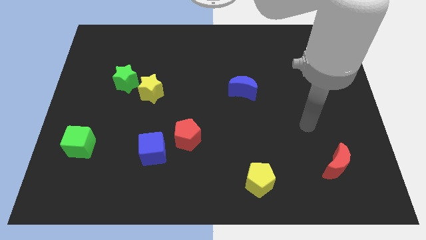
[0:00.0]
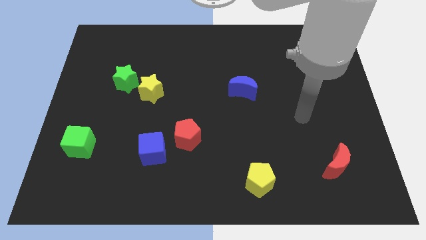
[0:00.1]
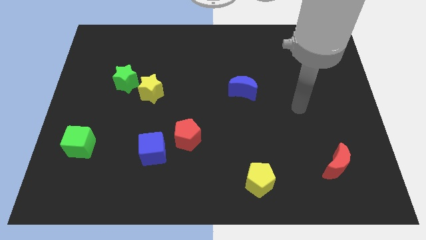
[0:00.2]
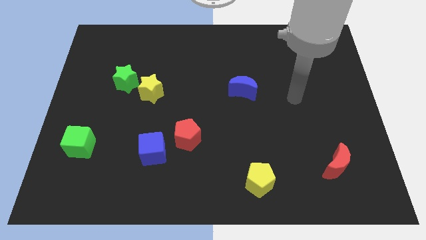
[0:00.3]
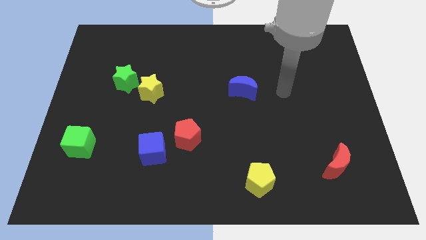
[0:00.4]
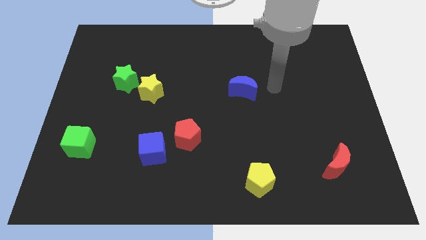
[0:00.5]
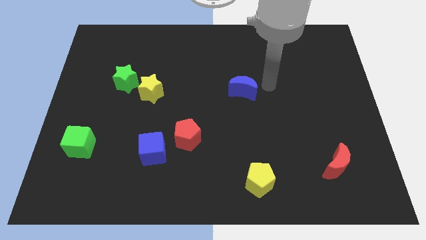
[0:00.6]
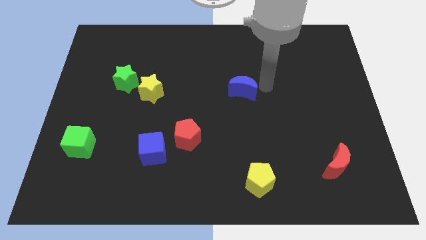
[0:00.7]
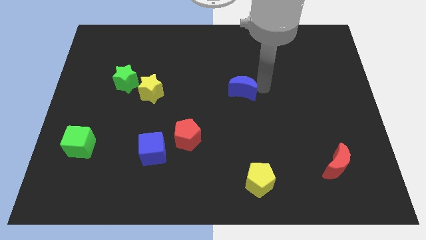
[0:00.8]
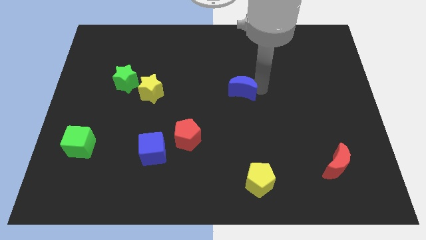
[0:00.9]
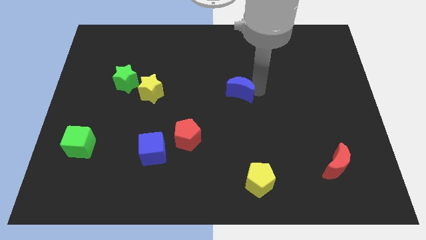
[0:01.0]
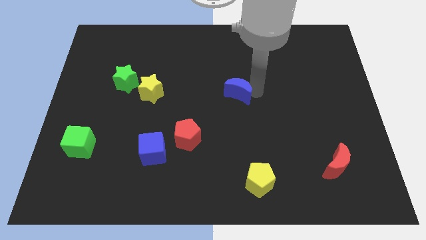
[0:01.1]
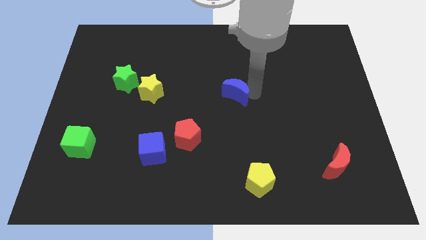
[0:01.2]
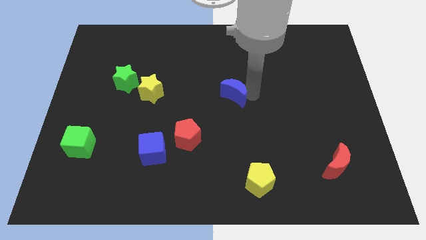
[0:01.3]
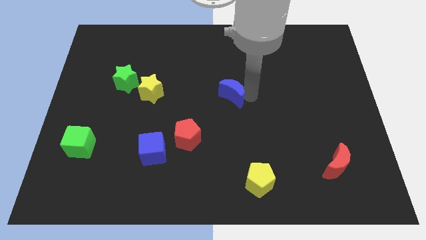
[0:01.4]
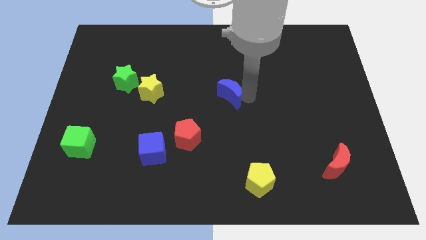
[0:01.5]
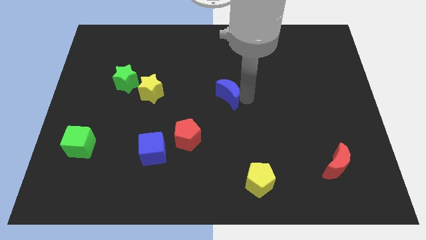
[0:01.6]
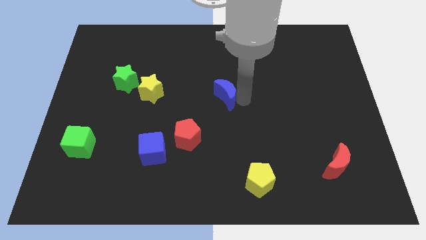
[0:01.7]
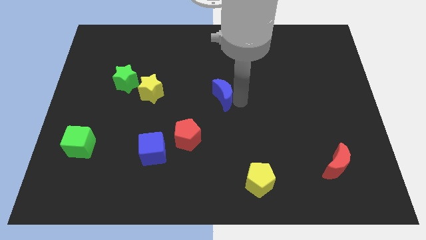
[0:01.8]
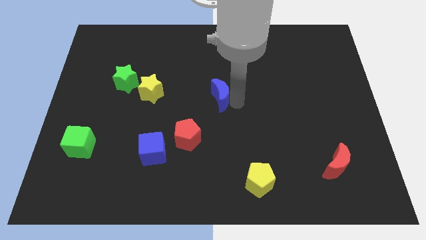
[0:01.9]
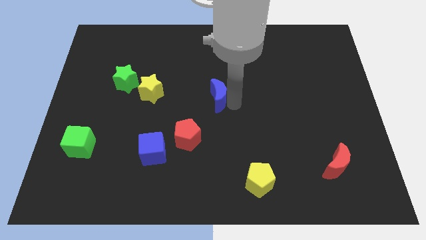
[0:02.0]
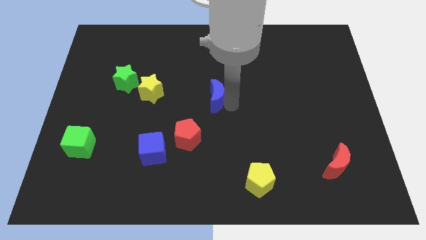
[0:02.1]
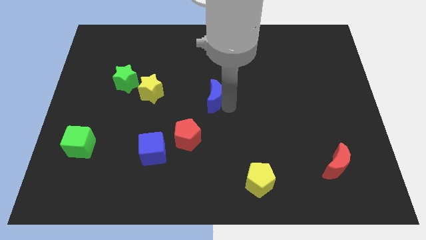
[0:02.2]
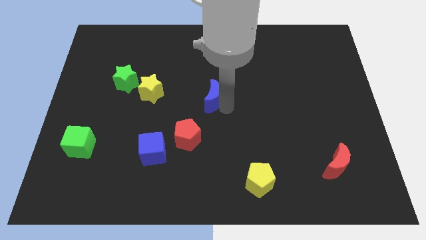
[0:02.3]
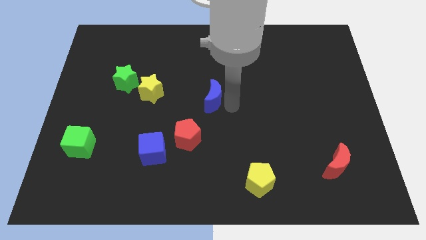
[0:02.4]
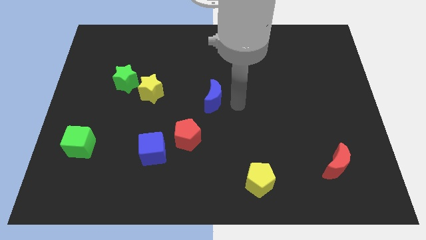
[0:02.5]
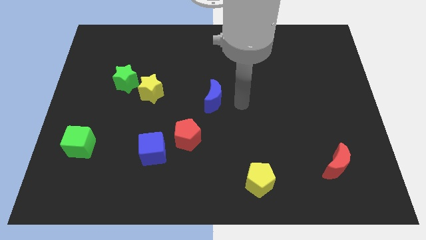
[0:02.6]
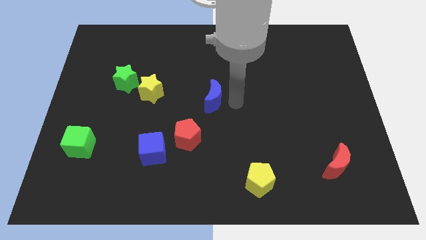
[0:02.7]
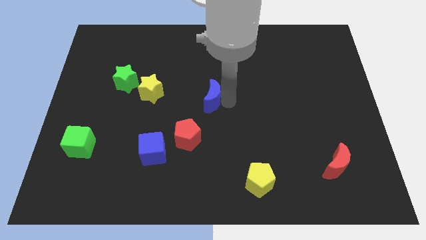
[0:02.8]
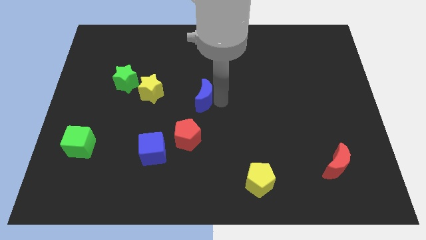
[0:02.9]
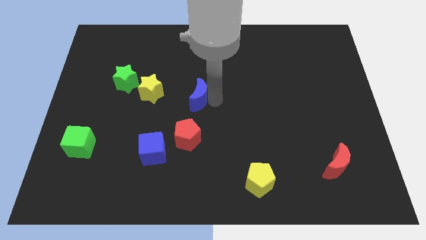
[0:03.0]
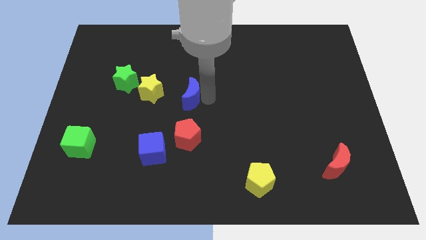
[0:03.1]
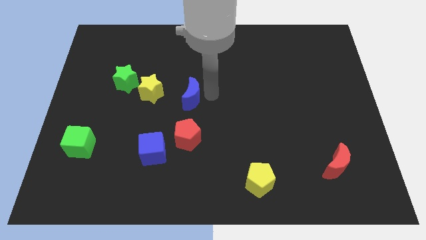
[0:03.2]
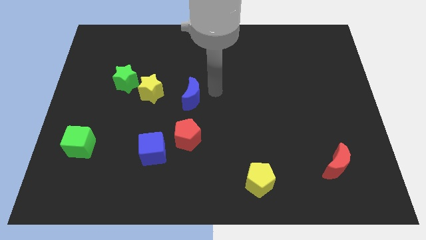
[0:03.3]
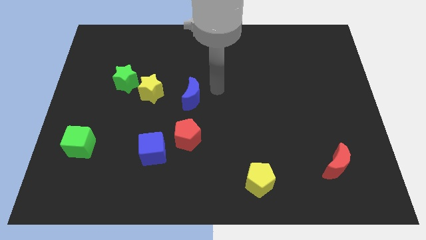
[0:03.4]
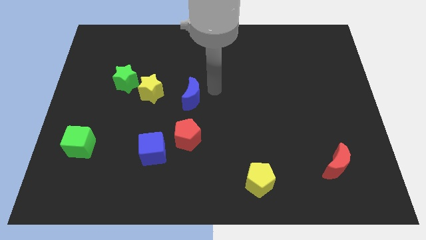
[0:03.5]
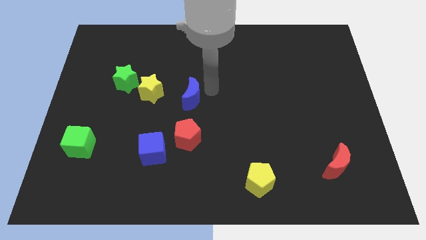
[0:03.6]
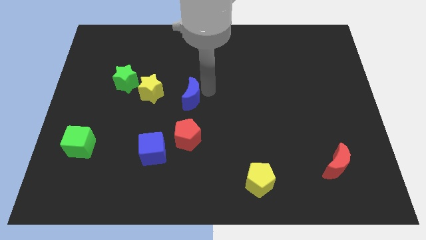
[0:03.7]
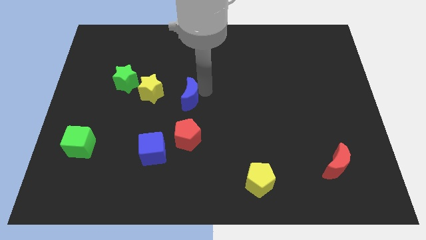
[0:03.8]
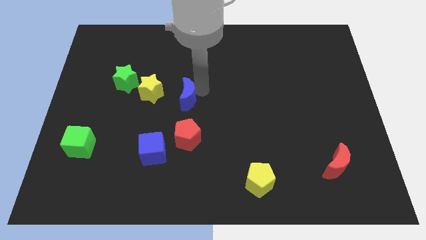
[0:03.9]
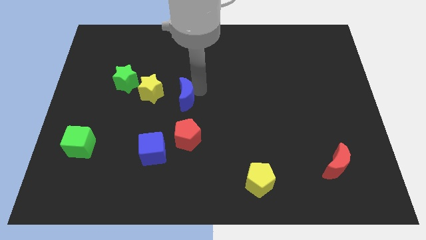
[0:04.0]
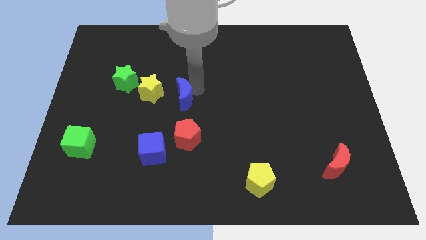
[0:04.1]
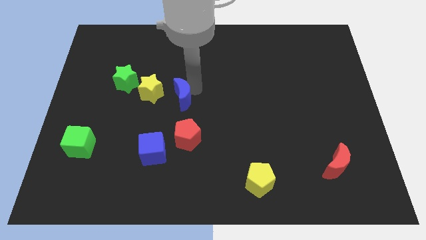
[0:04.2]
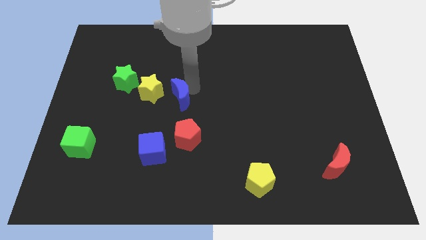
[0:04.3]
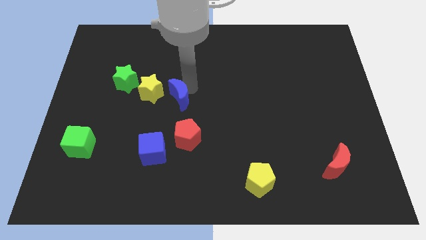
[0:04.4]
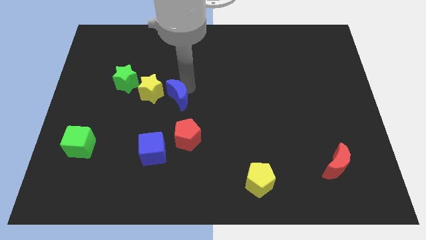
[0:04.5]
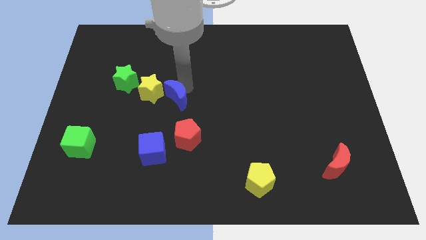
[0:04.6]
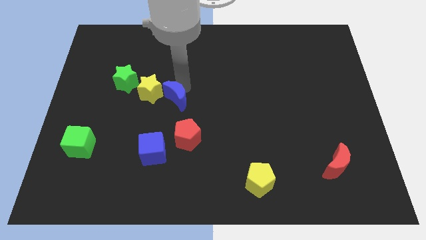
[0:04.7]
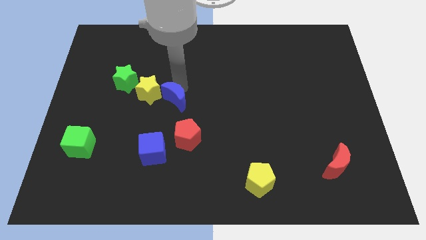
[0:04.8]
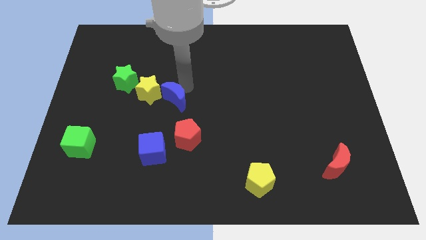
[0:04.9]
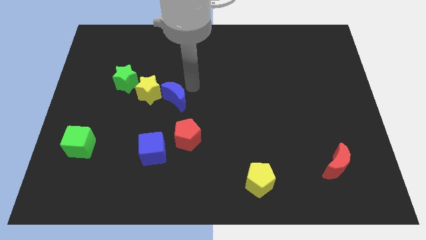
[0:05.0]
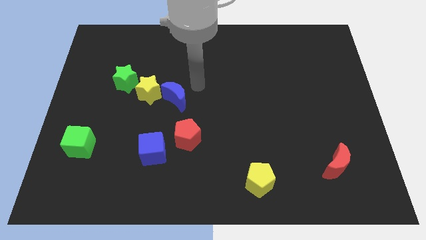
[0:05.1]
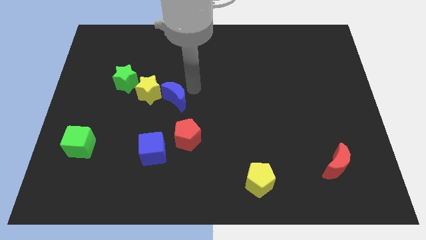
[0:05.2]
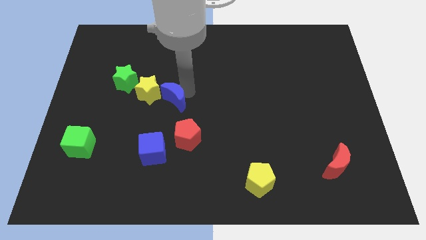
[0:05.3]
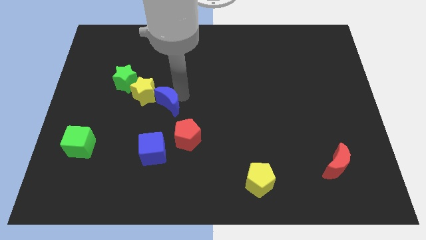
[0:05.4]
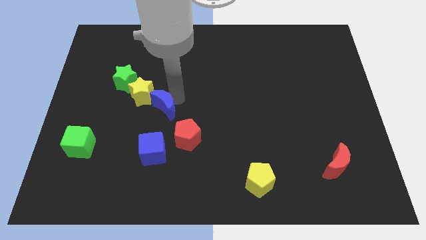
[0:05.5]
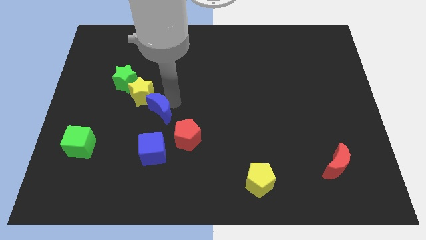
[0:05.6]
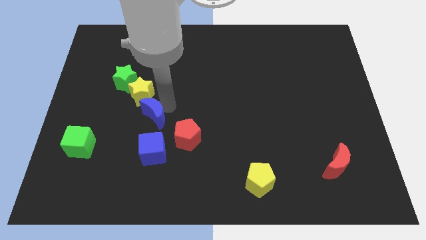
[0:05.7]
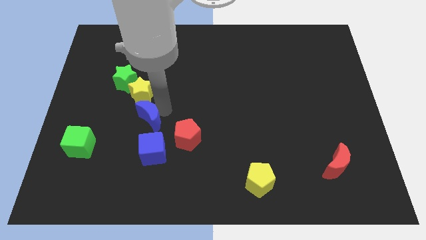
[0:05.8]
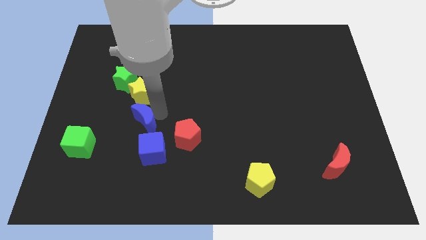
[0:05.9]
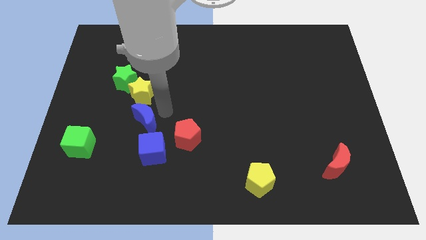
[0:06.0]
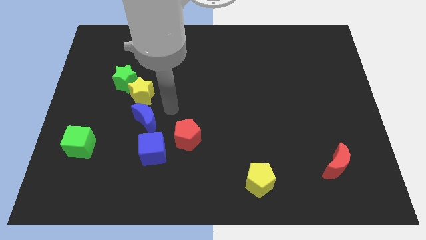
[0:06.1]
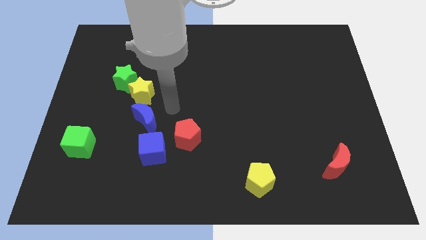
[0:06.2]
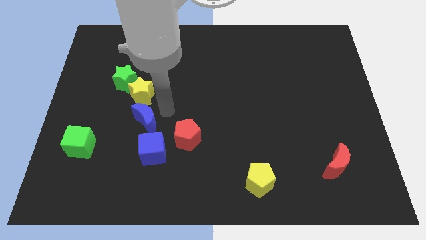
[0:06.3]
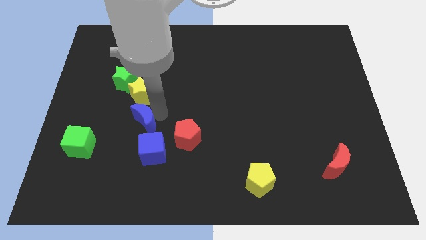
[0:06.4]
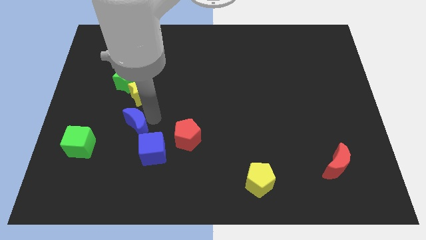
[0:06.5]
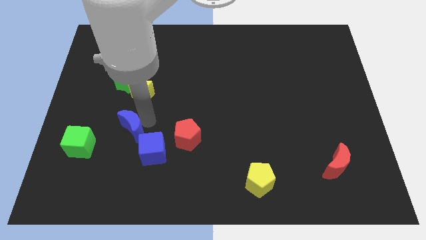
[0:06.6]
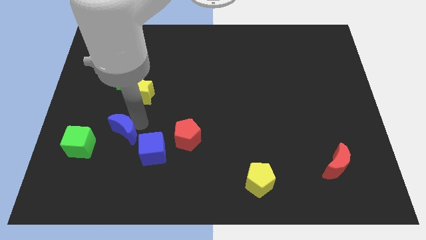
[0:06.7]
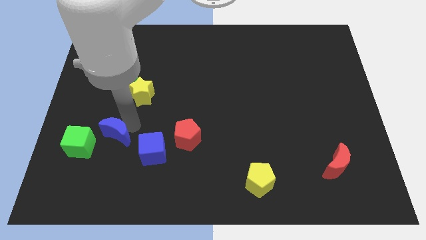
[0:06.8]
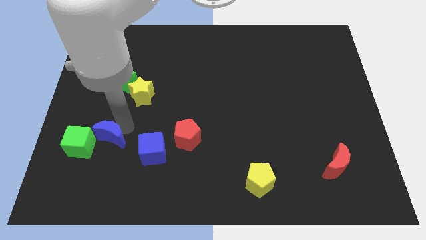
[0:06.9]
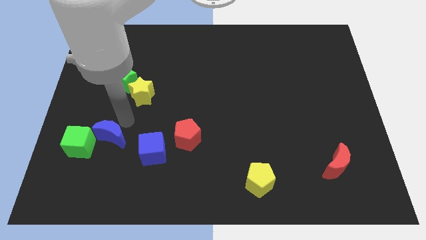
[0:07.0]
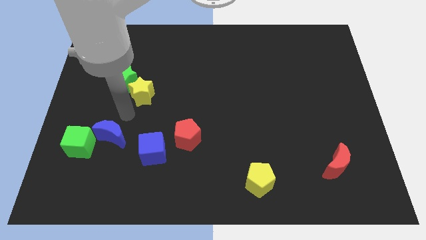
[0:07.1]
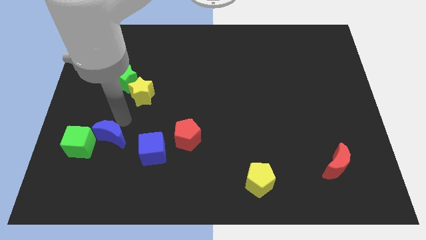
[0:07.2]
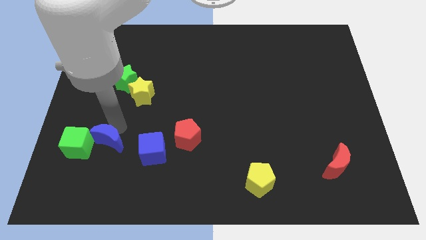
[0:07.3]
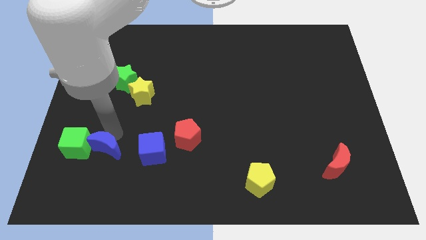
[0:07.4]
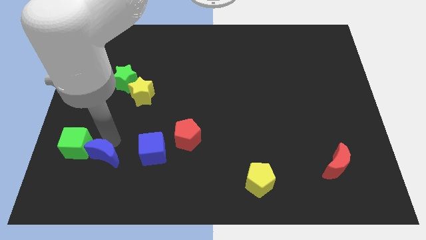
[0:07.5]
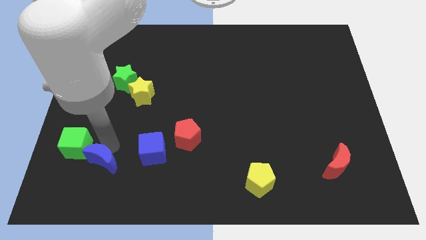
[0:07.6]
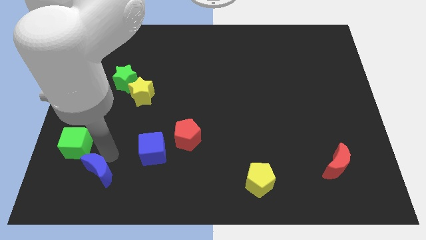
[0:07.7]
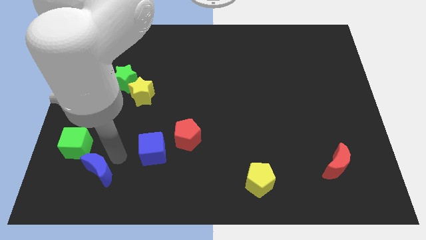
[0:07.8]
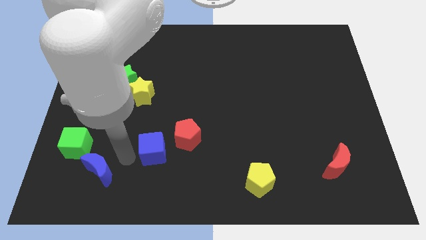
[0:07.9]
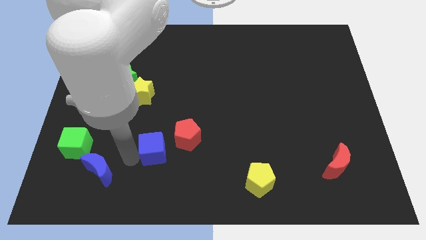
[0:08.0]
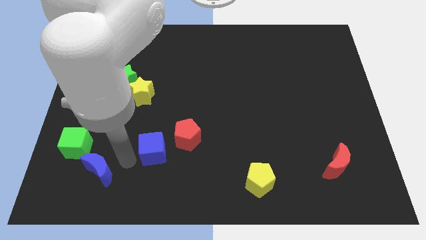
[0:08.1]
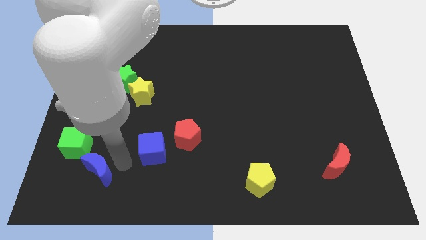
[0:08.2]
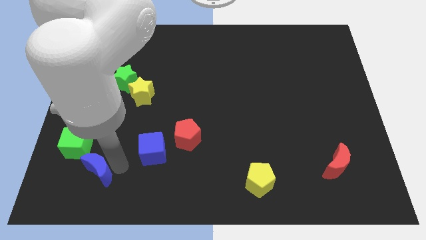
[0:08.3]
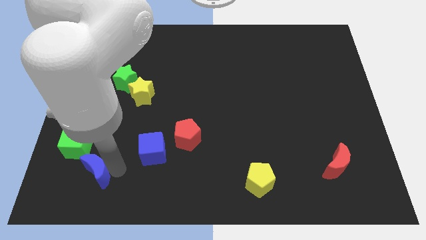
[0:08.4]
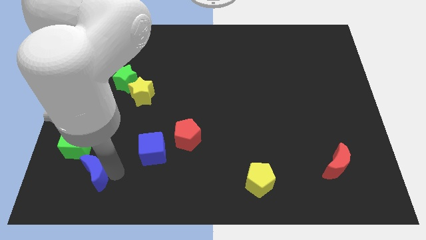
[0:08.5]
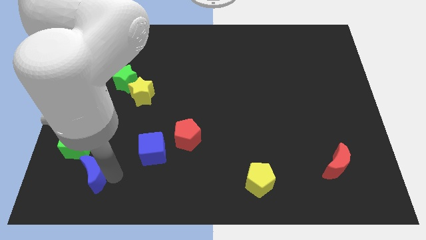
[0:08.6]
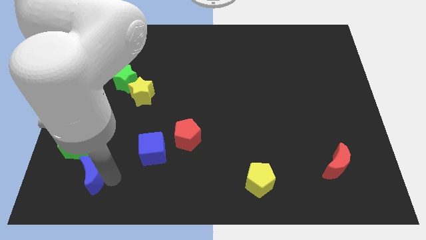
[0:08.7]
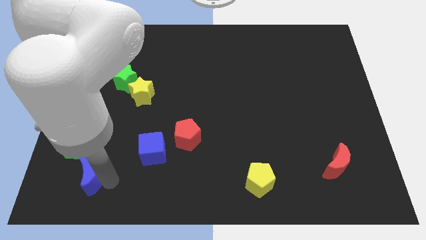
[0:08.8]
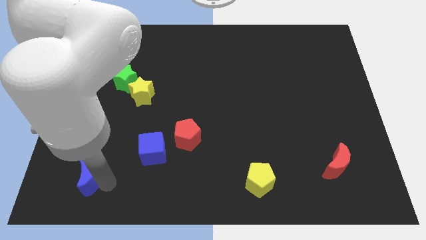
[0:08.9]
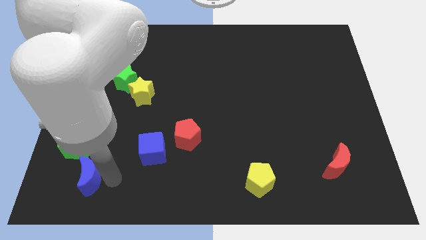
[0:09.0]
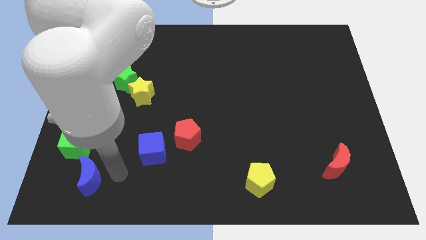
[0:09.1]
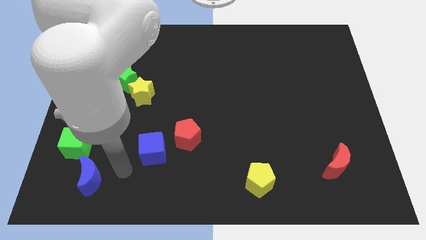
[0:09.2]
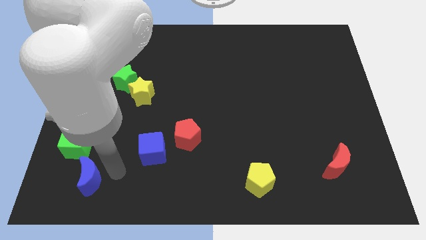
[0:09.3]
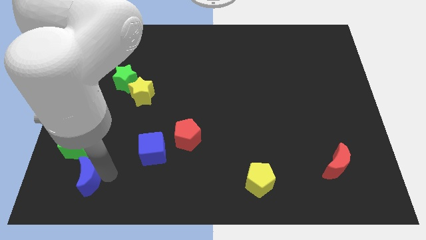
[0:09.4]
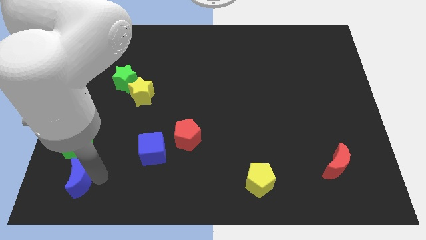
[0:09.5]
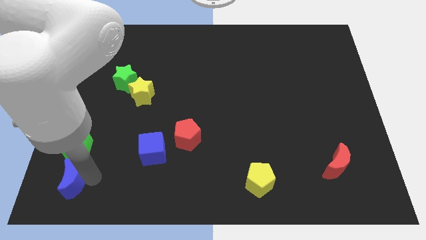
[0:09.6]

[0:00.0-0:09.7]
move the blue moon to the lower left corner
